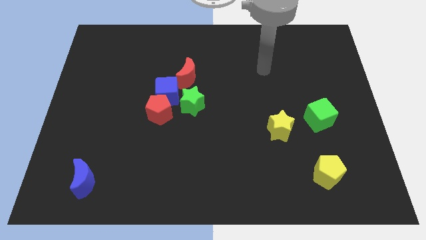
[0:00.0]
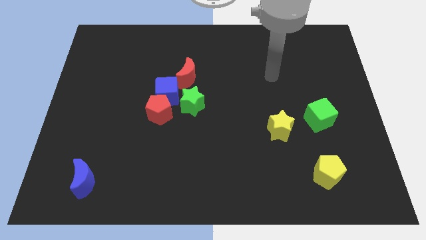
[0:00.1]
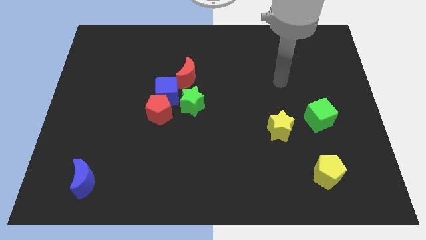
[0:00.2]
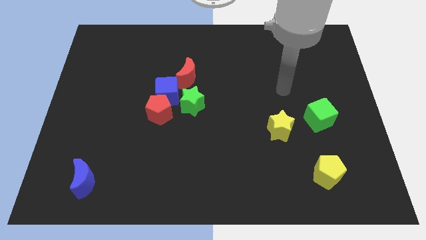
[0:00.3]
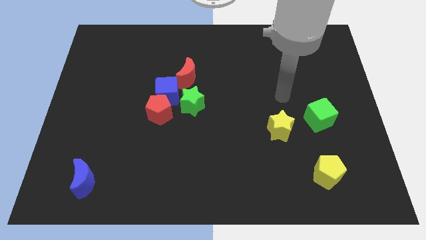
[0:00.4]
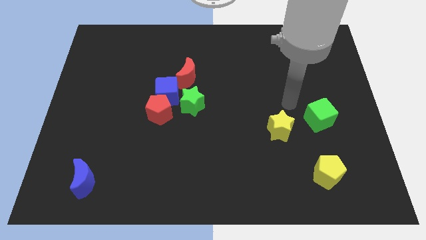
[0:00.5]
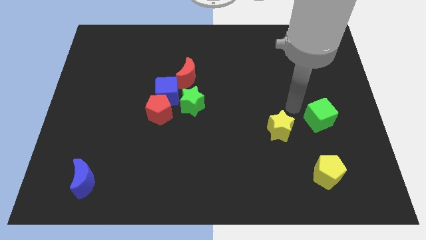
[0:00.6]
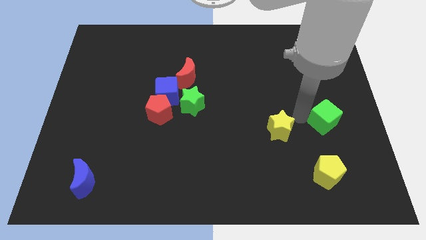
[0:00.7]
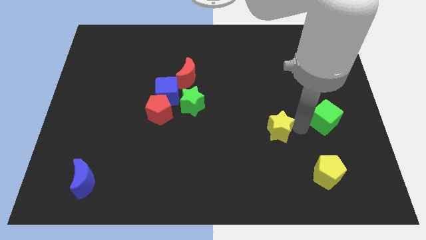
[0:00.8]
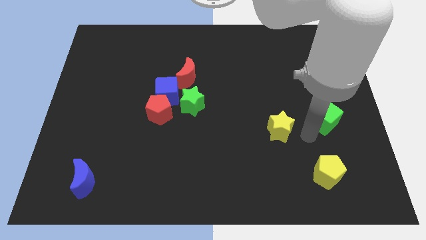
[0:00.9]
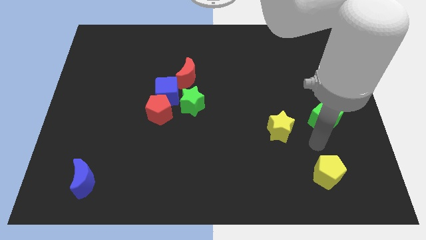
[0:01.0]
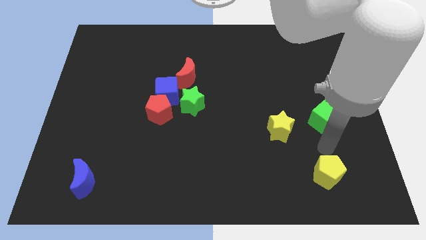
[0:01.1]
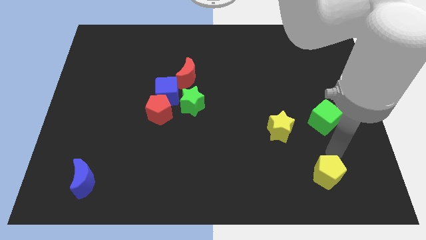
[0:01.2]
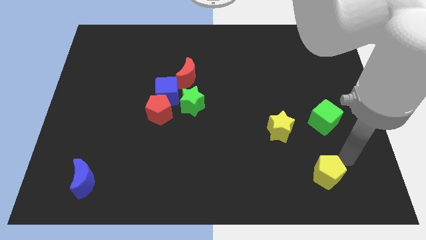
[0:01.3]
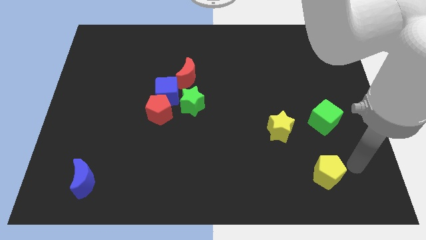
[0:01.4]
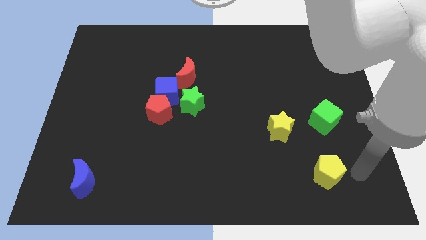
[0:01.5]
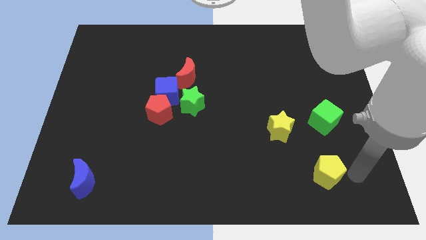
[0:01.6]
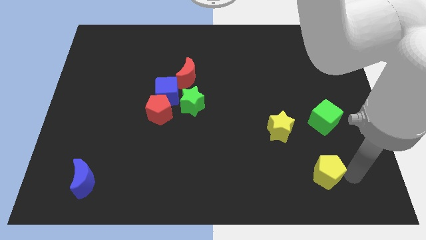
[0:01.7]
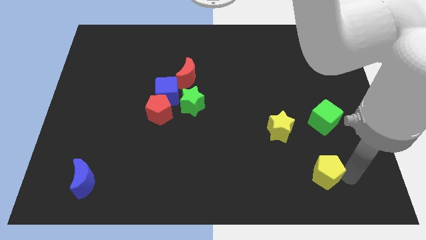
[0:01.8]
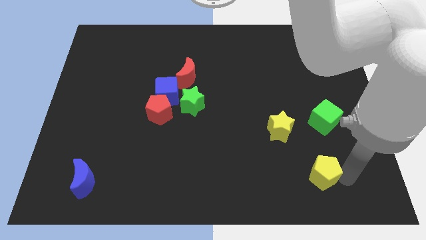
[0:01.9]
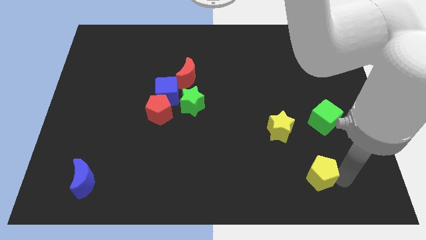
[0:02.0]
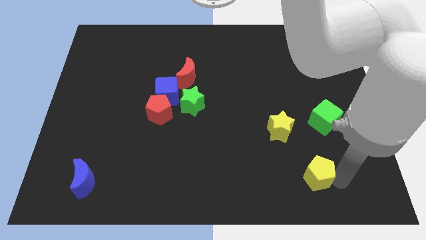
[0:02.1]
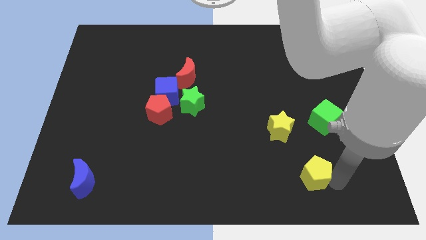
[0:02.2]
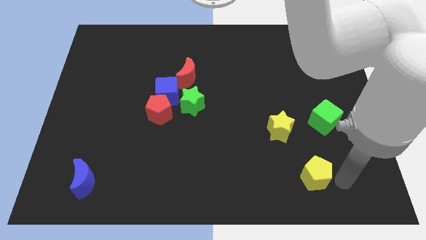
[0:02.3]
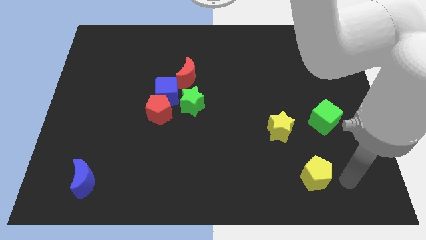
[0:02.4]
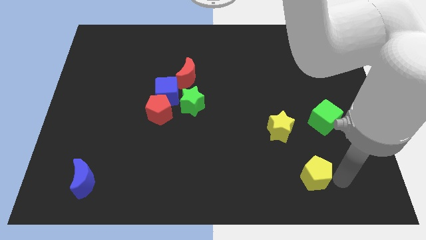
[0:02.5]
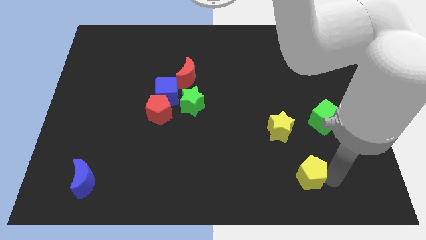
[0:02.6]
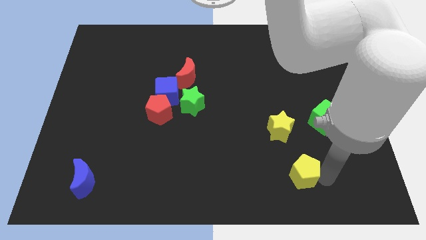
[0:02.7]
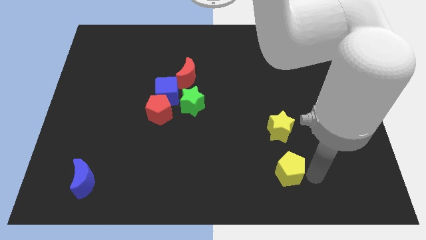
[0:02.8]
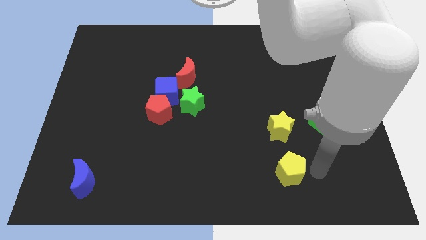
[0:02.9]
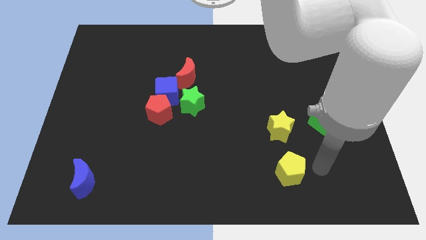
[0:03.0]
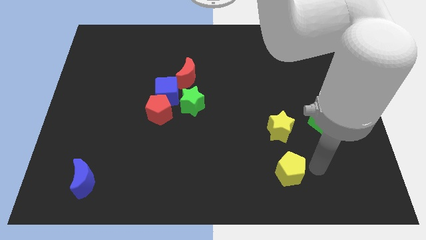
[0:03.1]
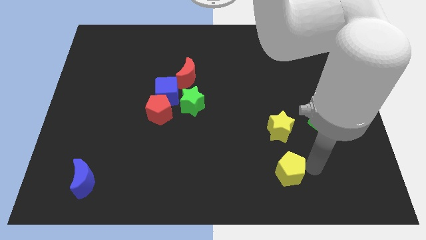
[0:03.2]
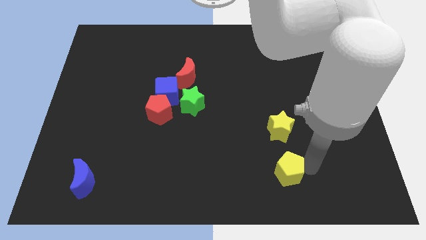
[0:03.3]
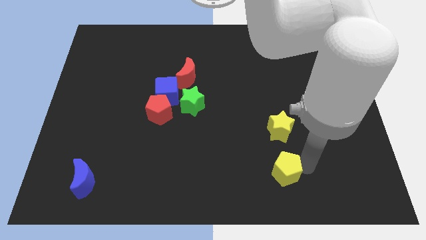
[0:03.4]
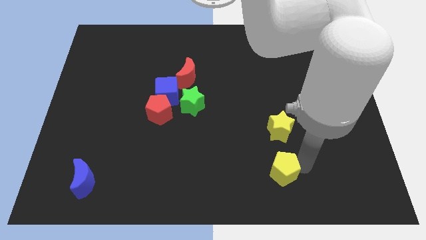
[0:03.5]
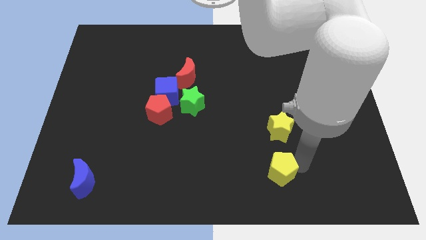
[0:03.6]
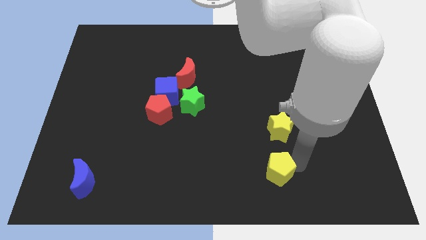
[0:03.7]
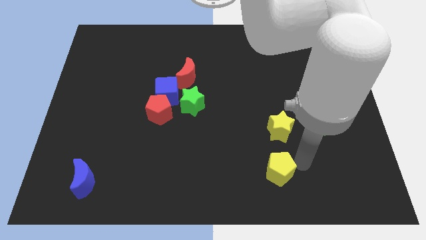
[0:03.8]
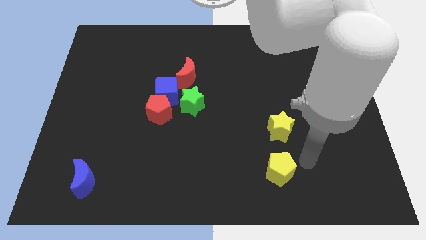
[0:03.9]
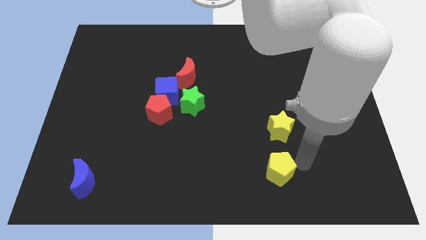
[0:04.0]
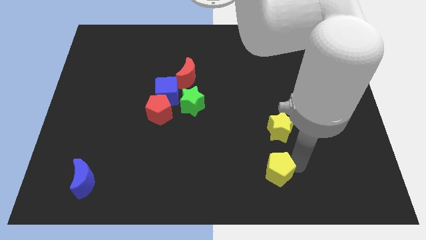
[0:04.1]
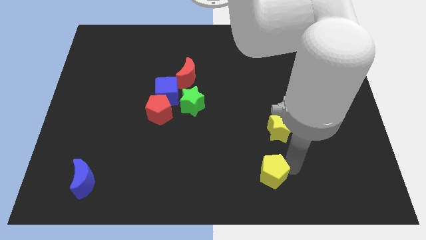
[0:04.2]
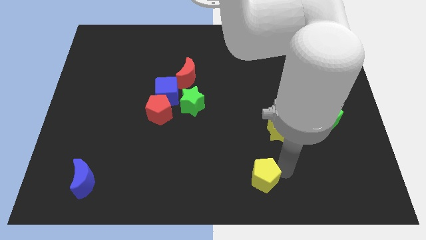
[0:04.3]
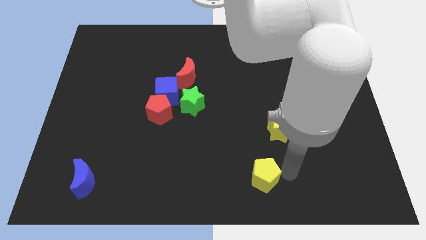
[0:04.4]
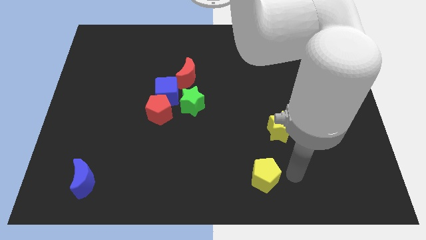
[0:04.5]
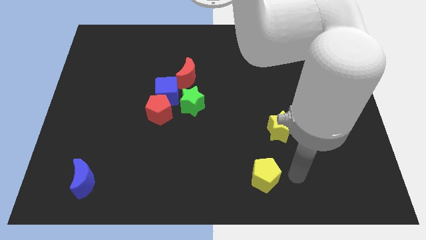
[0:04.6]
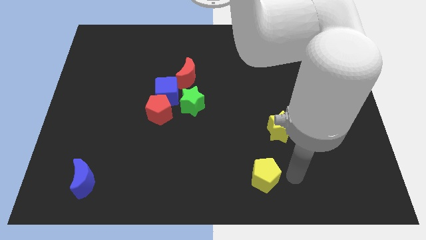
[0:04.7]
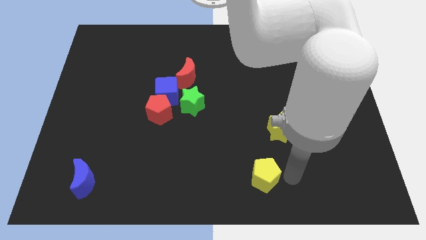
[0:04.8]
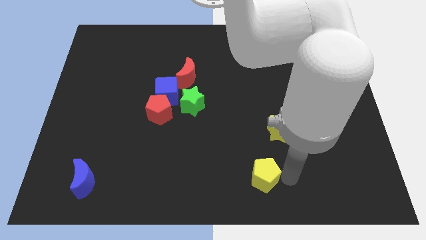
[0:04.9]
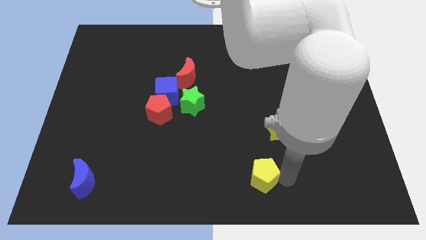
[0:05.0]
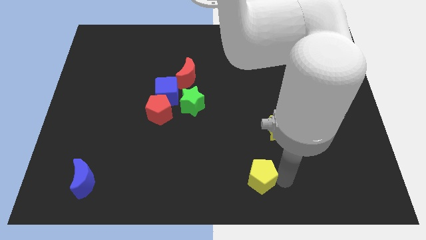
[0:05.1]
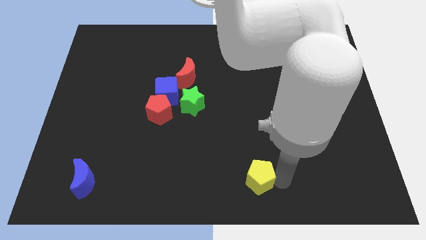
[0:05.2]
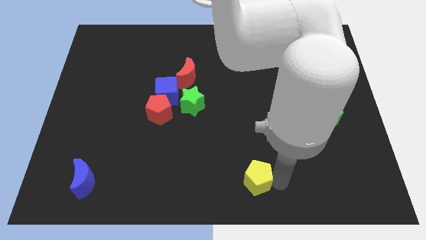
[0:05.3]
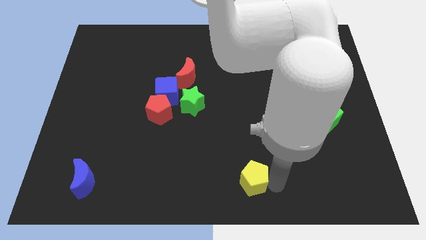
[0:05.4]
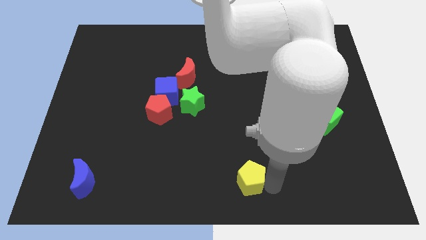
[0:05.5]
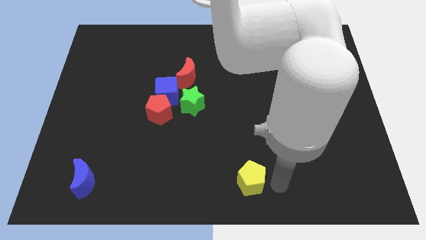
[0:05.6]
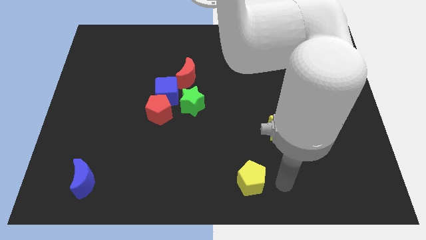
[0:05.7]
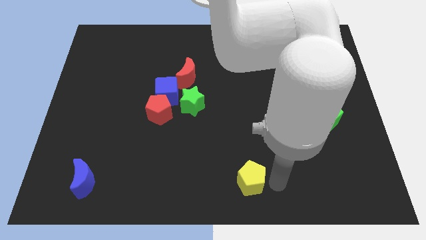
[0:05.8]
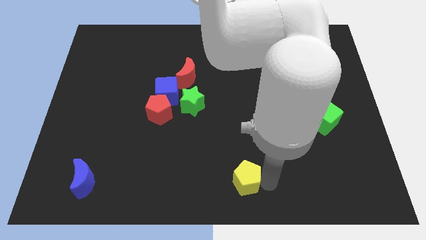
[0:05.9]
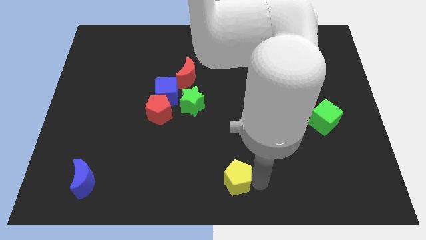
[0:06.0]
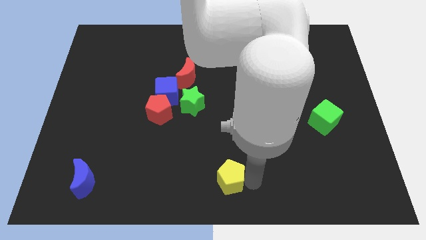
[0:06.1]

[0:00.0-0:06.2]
move the yellow pentagon to the left

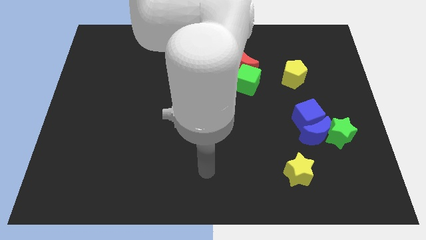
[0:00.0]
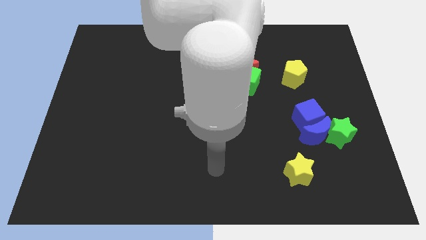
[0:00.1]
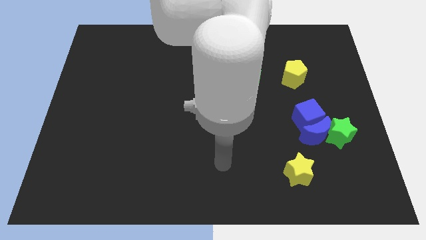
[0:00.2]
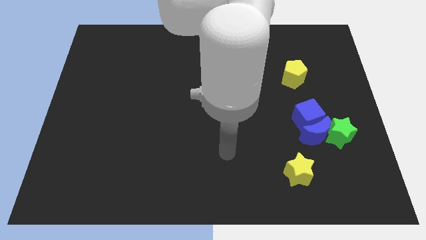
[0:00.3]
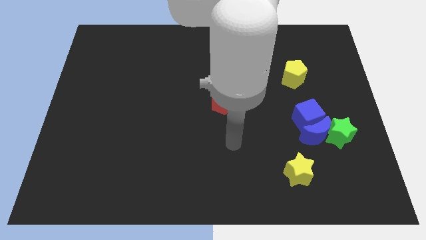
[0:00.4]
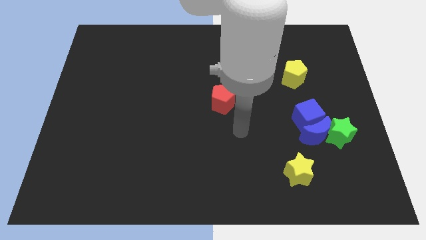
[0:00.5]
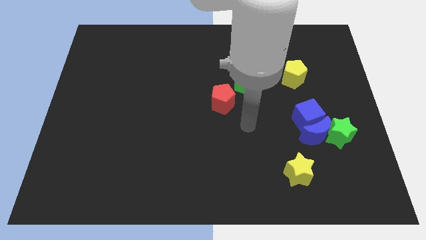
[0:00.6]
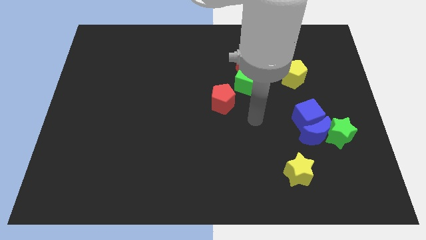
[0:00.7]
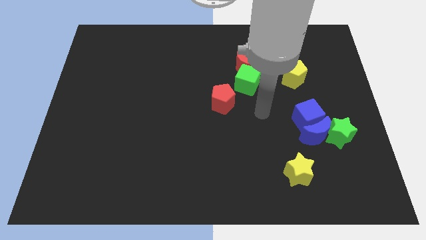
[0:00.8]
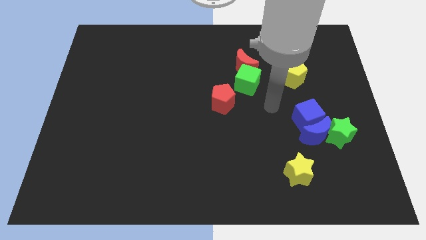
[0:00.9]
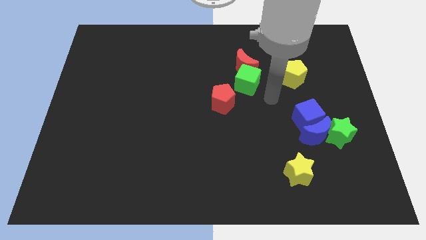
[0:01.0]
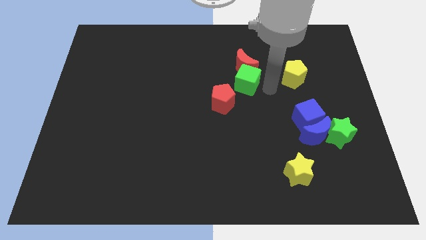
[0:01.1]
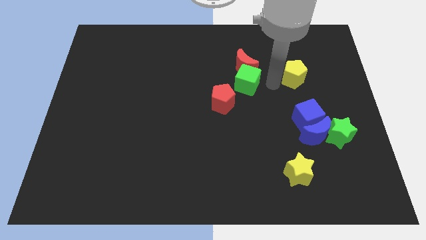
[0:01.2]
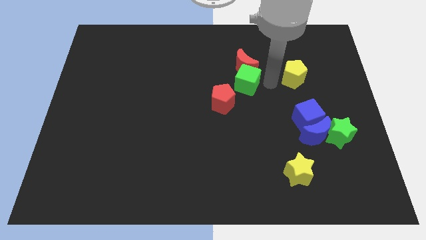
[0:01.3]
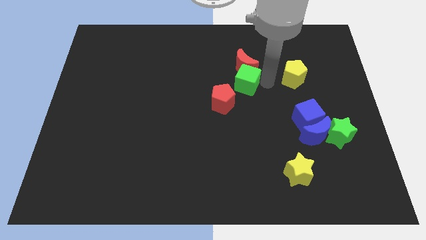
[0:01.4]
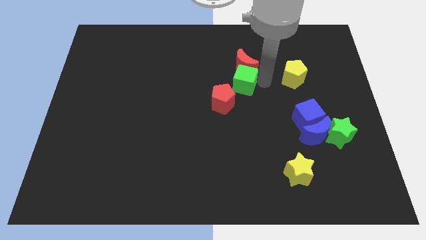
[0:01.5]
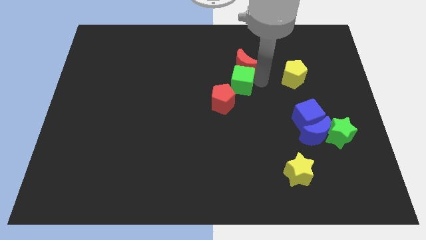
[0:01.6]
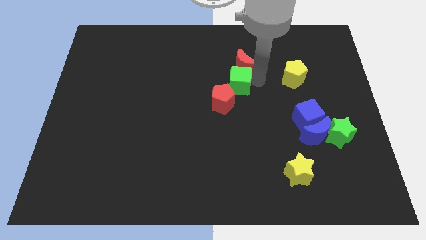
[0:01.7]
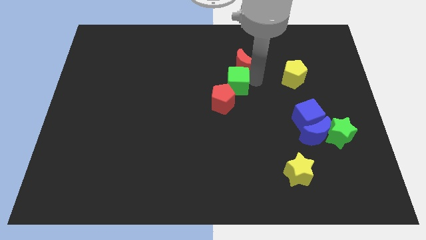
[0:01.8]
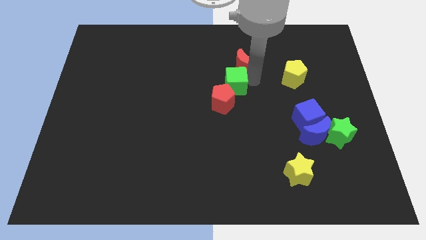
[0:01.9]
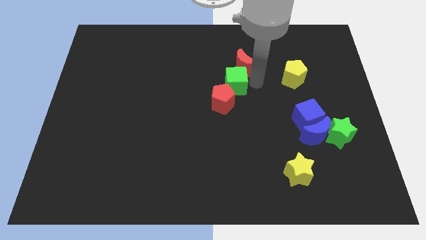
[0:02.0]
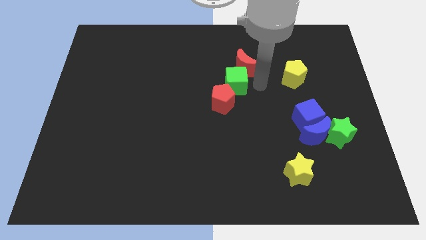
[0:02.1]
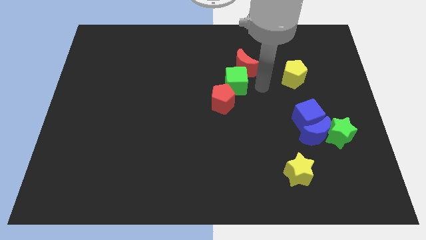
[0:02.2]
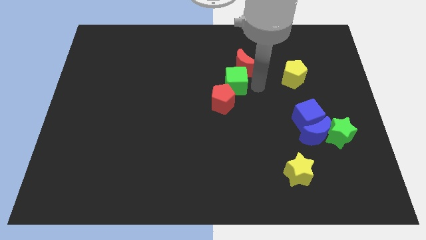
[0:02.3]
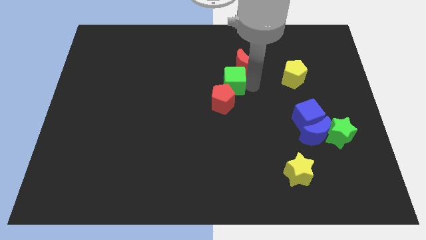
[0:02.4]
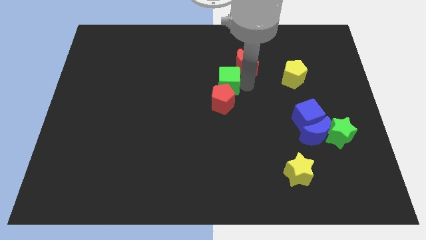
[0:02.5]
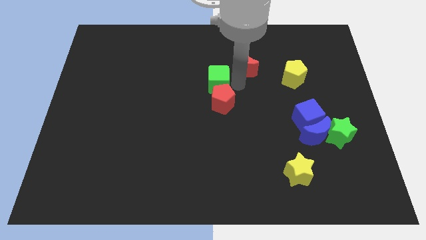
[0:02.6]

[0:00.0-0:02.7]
move the green cube somewhat left
